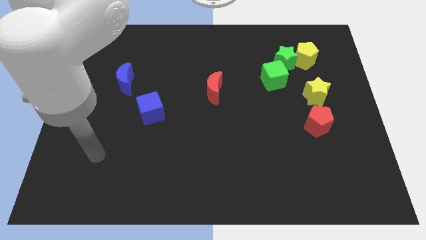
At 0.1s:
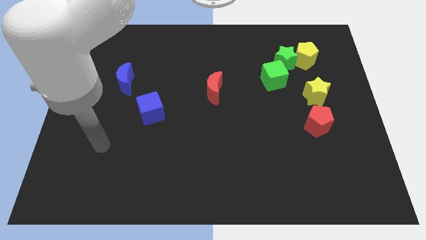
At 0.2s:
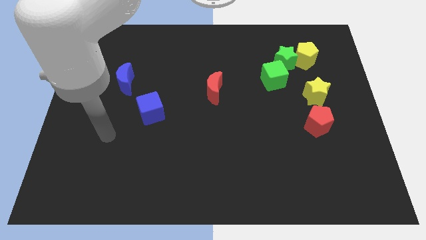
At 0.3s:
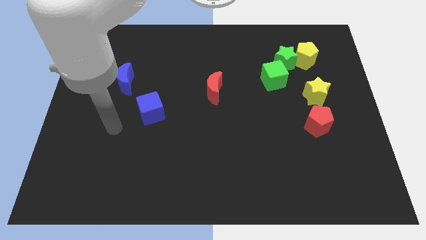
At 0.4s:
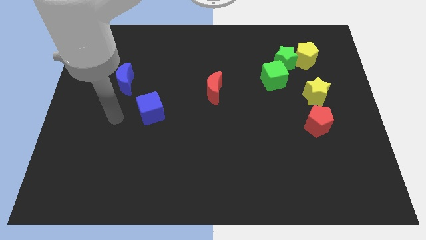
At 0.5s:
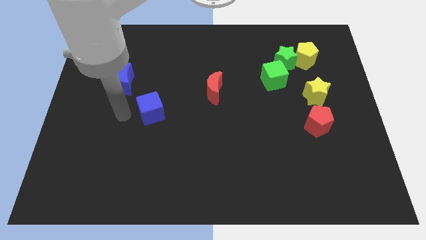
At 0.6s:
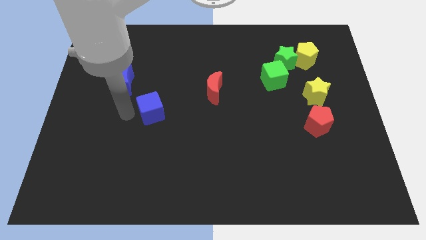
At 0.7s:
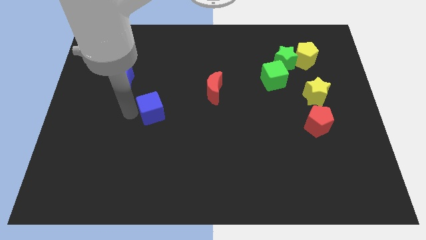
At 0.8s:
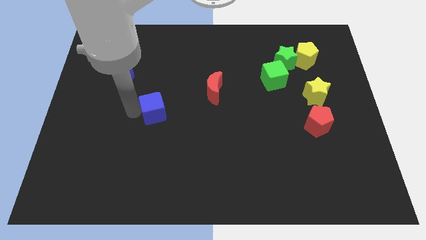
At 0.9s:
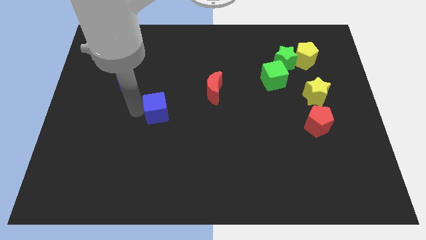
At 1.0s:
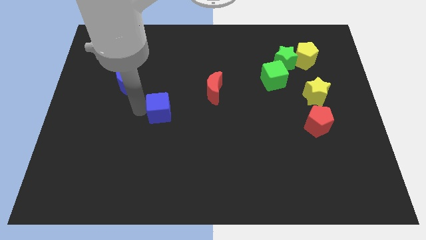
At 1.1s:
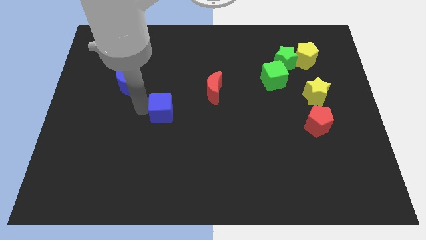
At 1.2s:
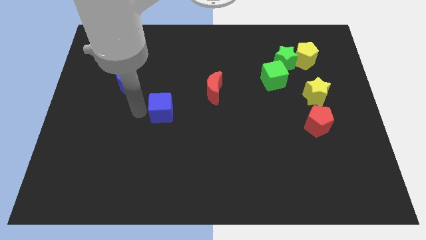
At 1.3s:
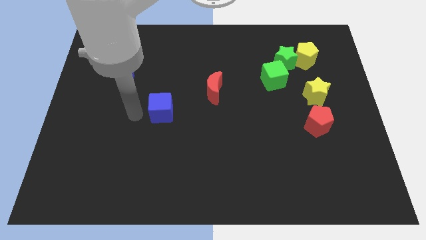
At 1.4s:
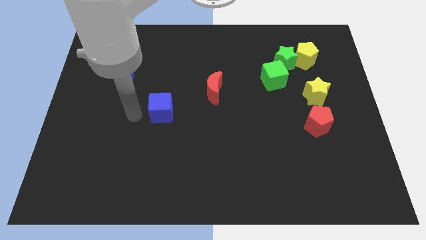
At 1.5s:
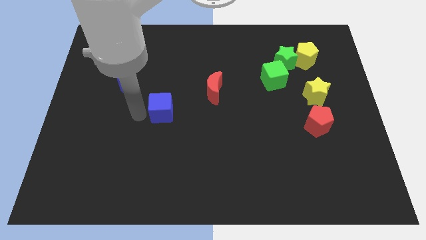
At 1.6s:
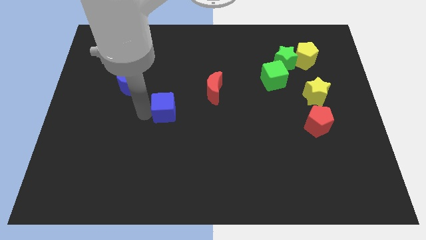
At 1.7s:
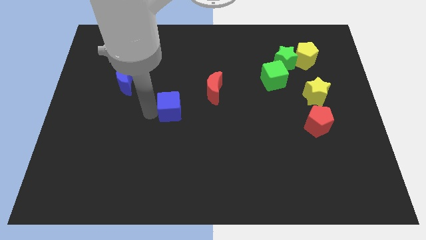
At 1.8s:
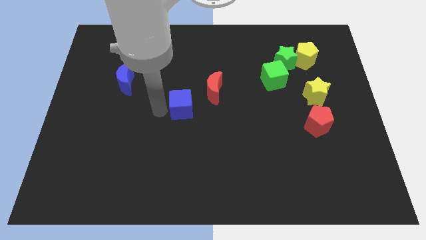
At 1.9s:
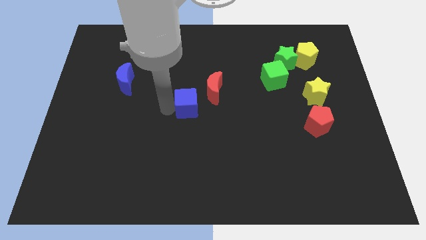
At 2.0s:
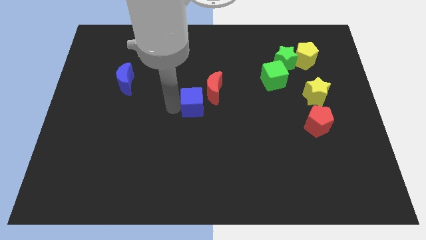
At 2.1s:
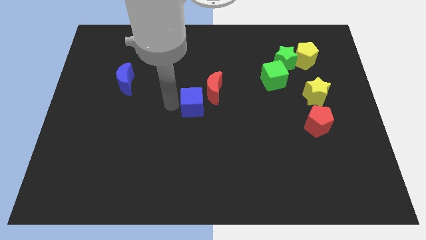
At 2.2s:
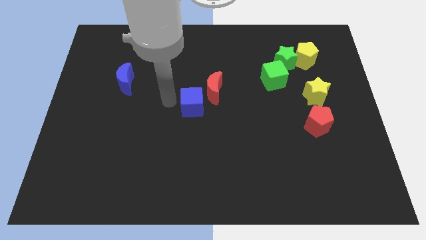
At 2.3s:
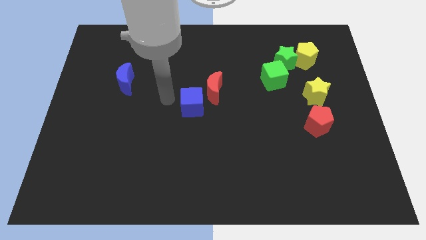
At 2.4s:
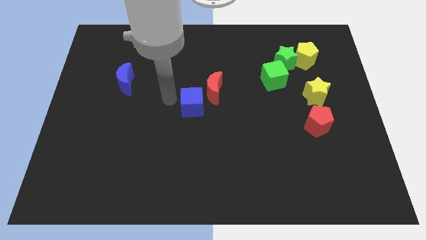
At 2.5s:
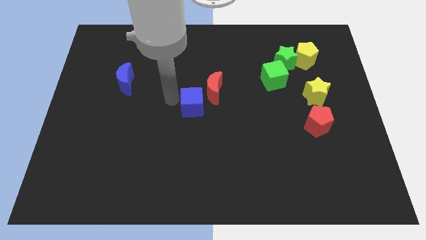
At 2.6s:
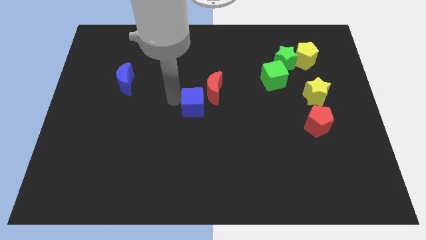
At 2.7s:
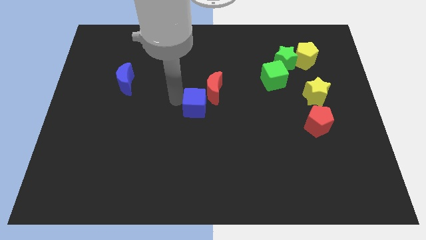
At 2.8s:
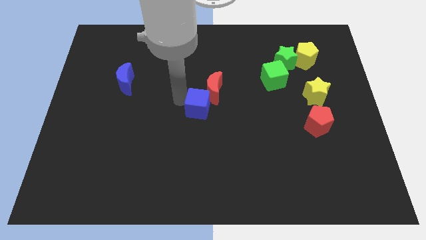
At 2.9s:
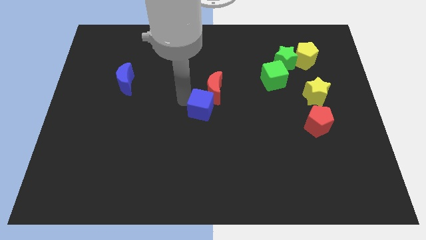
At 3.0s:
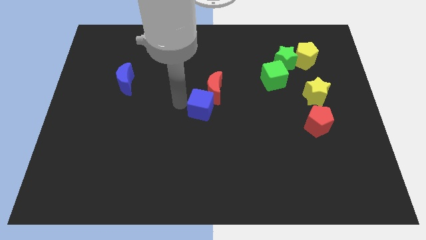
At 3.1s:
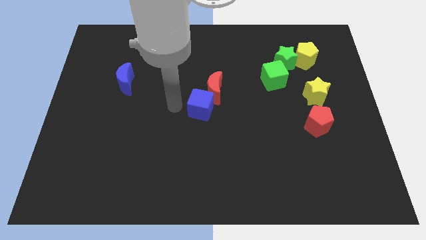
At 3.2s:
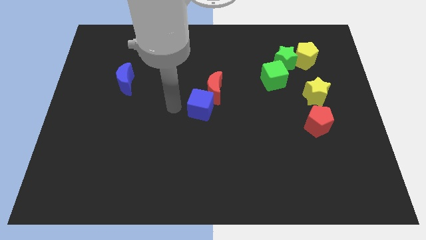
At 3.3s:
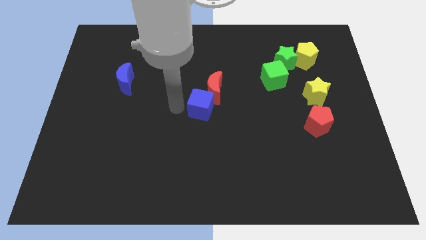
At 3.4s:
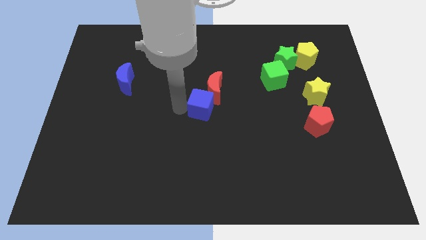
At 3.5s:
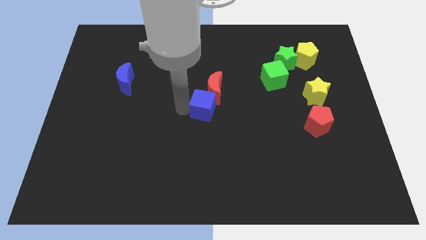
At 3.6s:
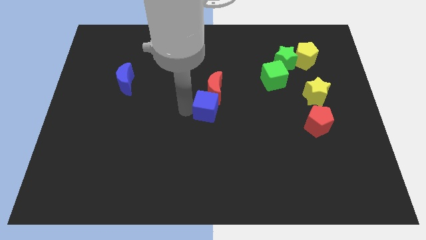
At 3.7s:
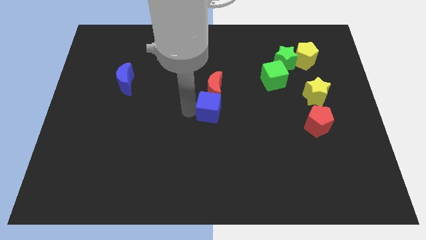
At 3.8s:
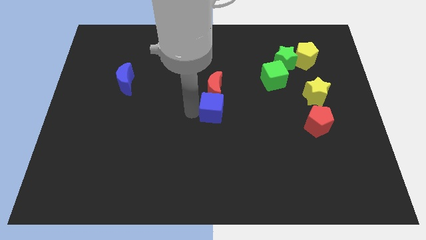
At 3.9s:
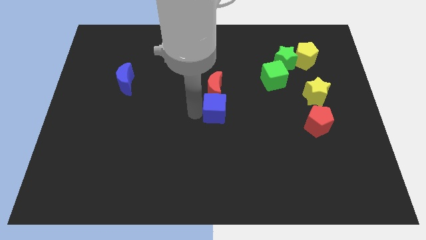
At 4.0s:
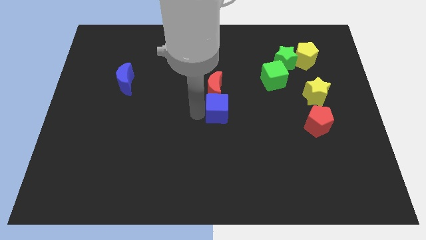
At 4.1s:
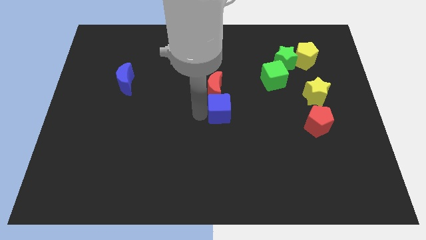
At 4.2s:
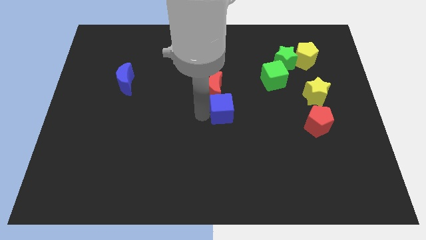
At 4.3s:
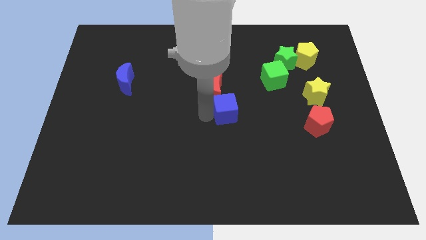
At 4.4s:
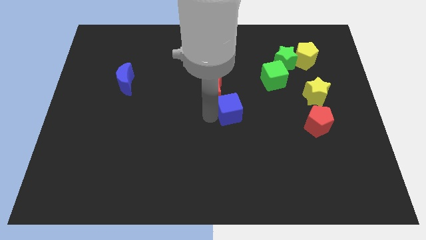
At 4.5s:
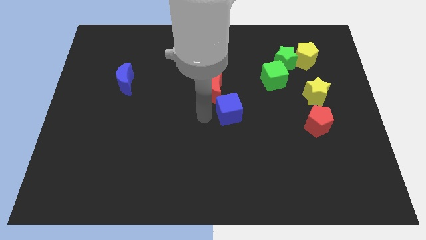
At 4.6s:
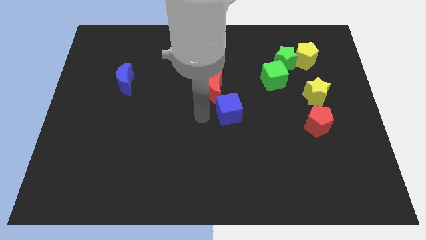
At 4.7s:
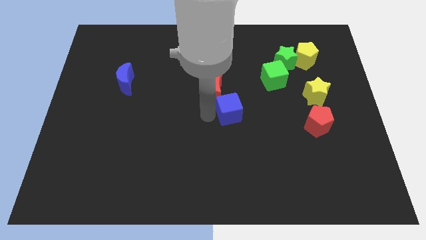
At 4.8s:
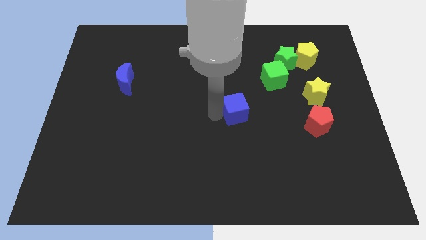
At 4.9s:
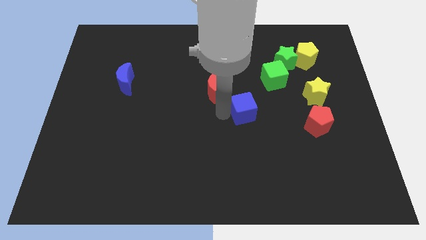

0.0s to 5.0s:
slide the blue cube right

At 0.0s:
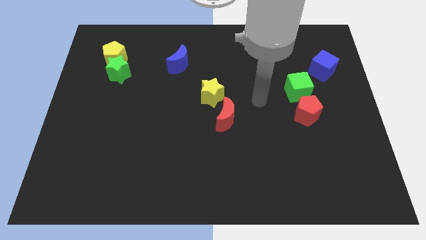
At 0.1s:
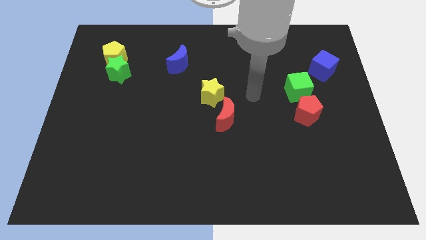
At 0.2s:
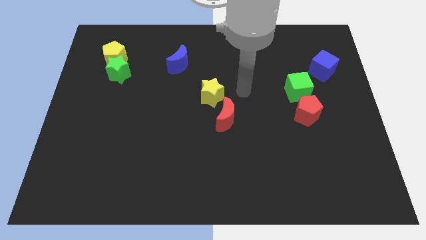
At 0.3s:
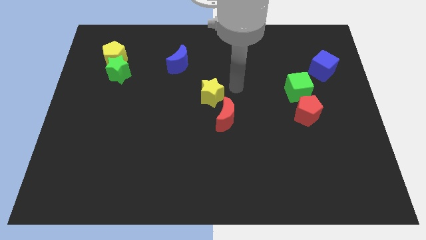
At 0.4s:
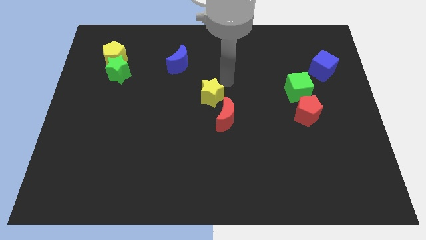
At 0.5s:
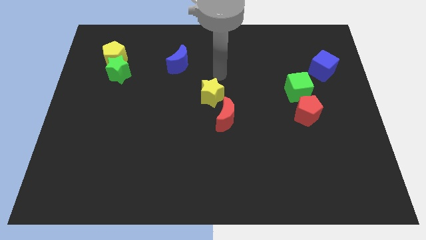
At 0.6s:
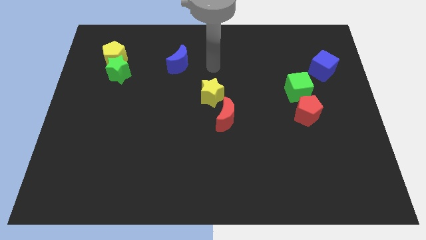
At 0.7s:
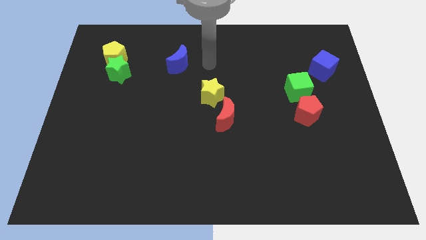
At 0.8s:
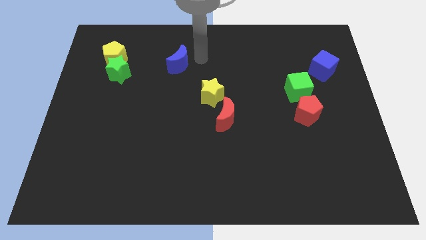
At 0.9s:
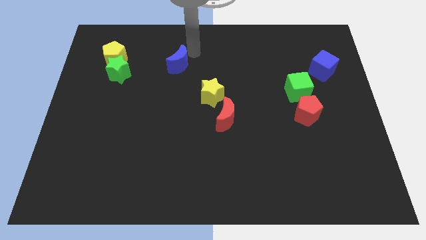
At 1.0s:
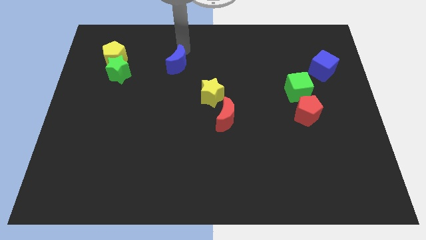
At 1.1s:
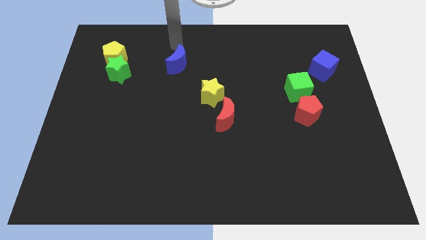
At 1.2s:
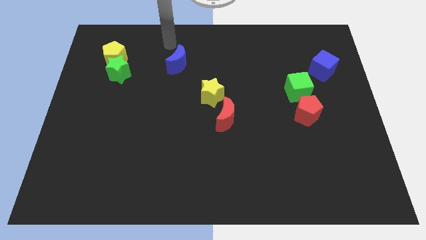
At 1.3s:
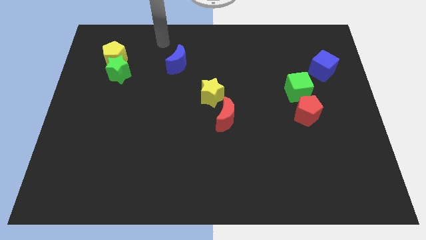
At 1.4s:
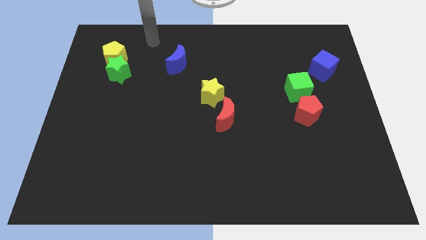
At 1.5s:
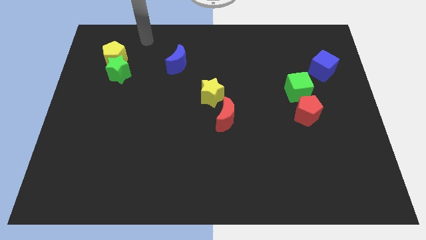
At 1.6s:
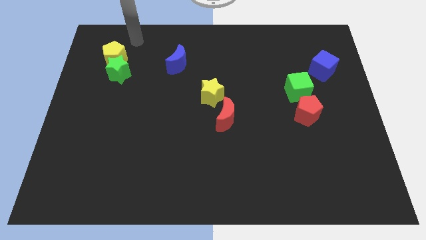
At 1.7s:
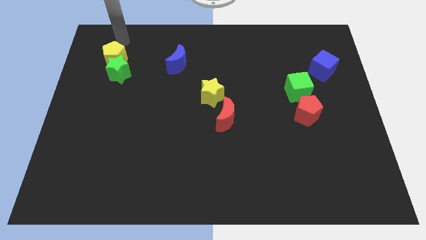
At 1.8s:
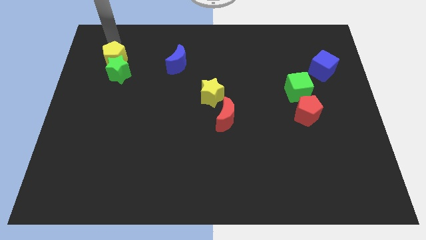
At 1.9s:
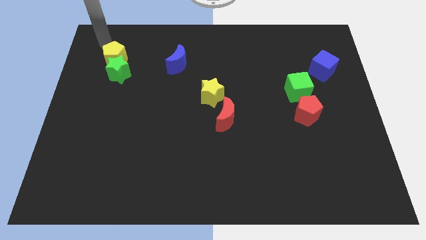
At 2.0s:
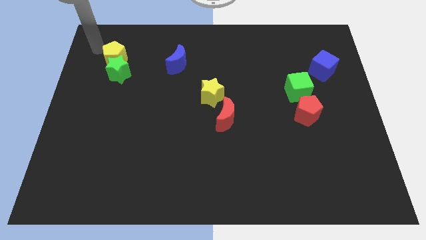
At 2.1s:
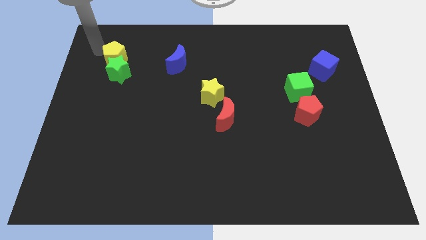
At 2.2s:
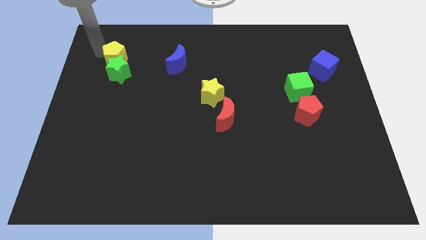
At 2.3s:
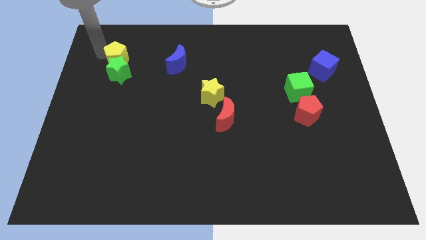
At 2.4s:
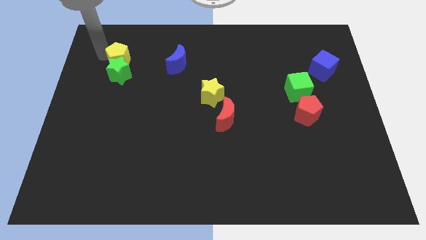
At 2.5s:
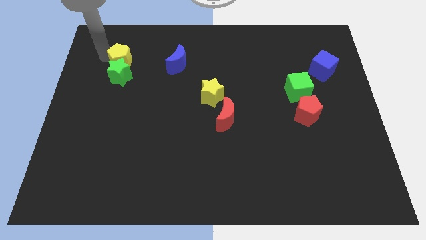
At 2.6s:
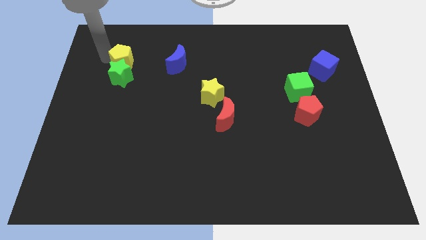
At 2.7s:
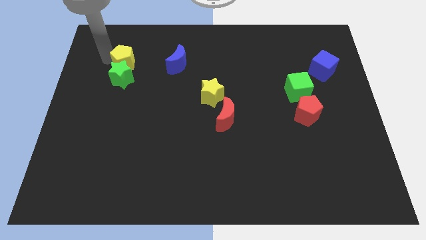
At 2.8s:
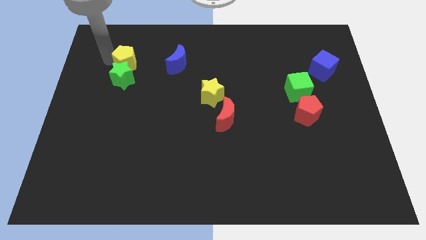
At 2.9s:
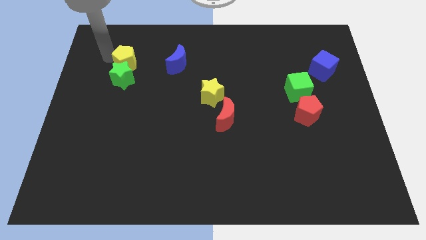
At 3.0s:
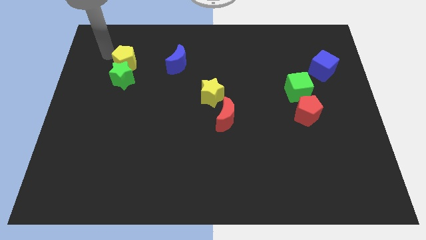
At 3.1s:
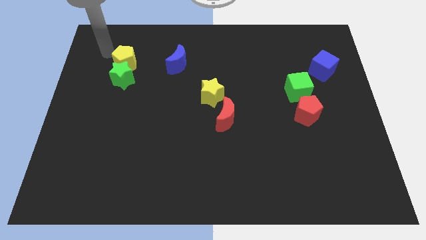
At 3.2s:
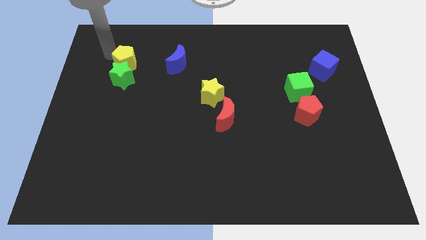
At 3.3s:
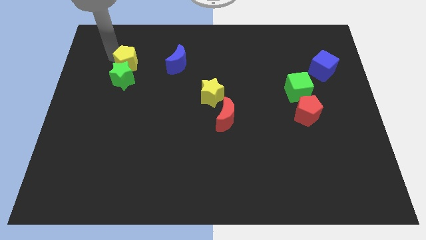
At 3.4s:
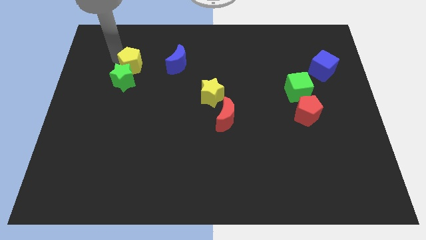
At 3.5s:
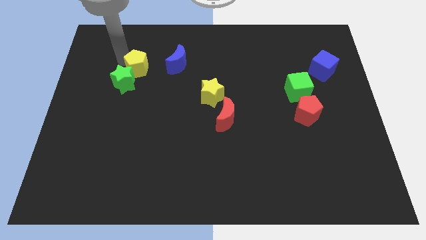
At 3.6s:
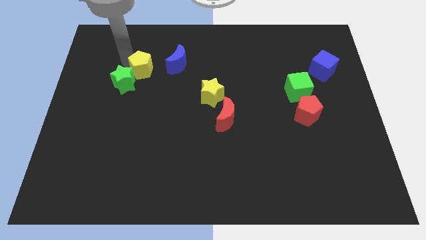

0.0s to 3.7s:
slightly move the yellow pentagon downwards and to the right
